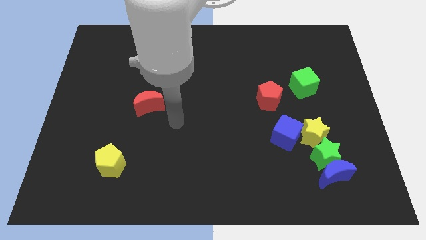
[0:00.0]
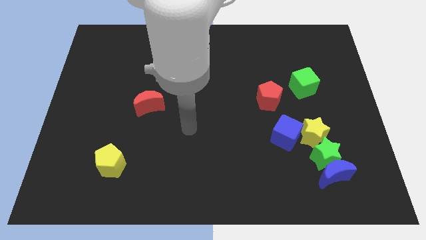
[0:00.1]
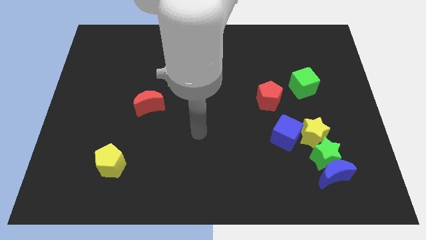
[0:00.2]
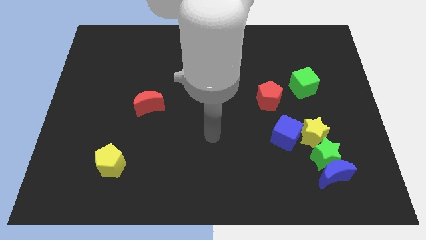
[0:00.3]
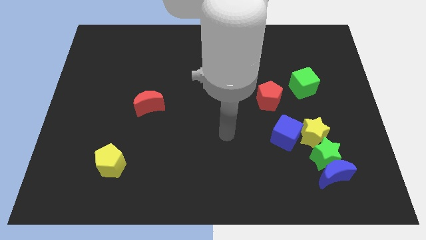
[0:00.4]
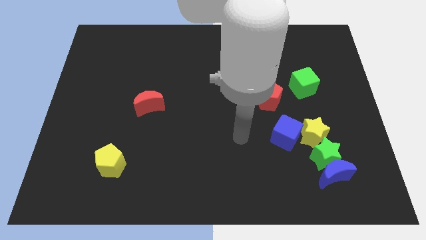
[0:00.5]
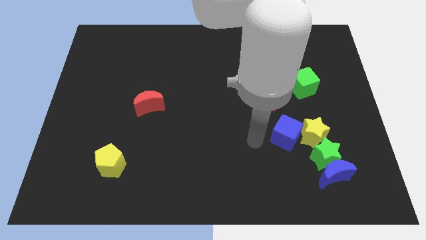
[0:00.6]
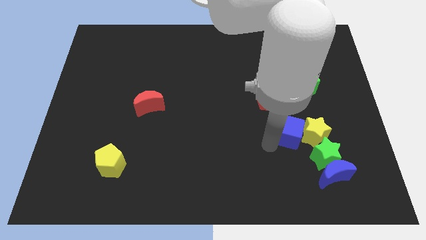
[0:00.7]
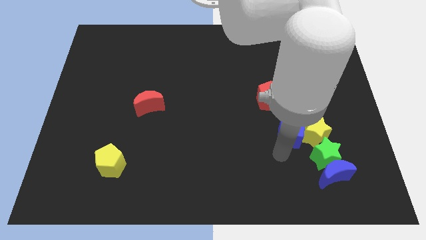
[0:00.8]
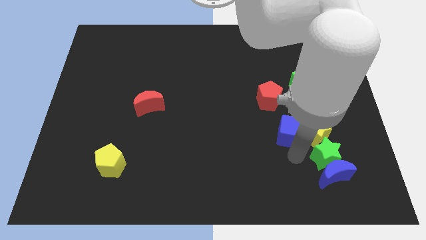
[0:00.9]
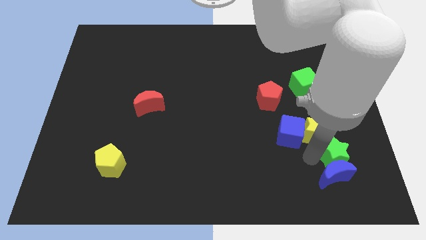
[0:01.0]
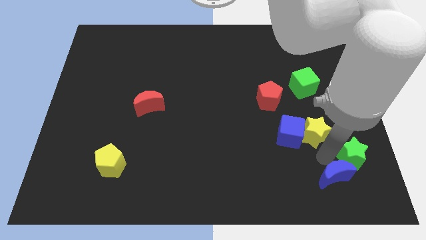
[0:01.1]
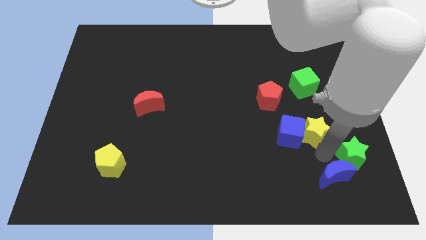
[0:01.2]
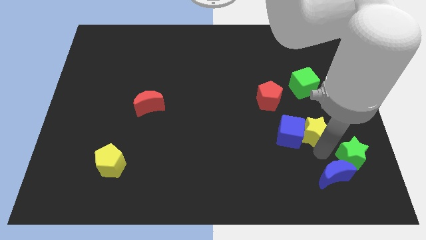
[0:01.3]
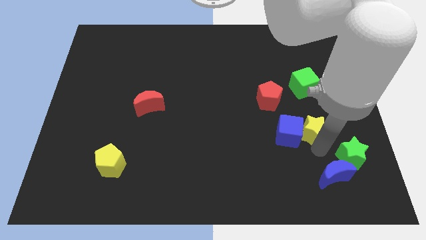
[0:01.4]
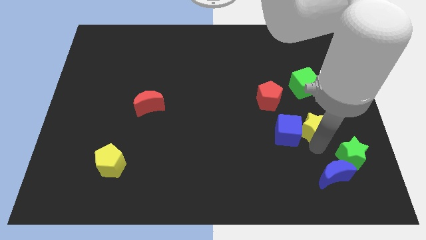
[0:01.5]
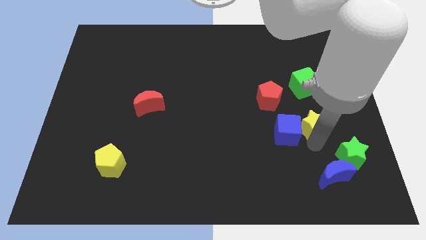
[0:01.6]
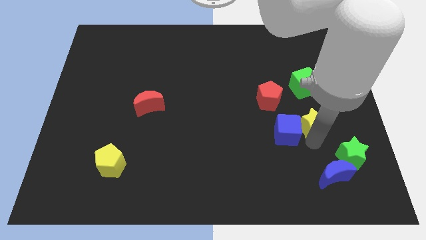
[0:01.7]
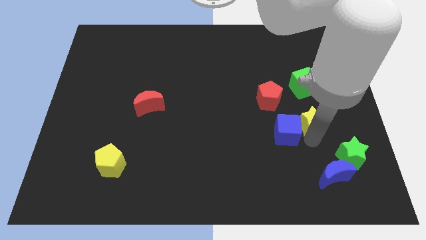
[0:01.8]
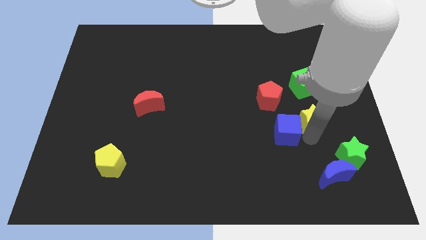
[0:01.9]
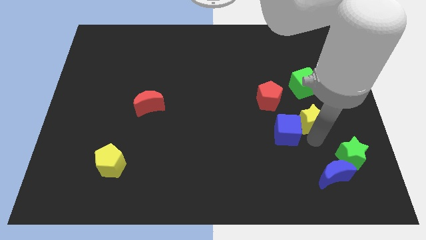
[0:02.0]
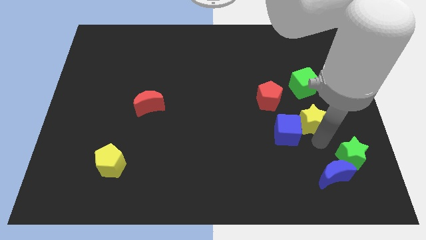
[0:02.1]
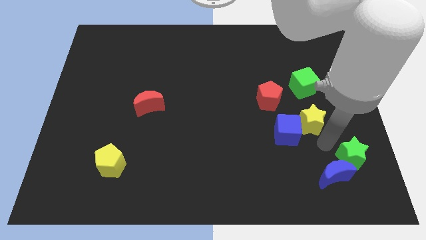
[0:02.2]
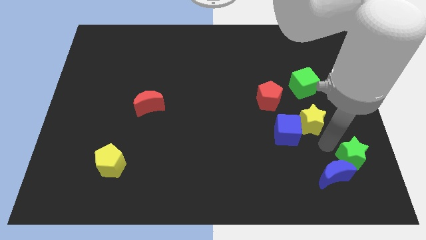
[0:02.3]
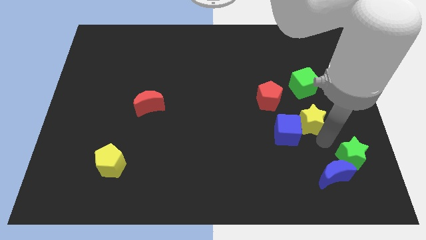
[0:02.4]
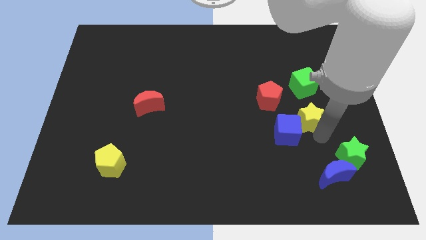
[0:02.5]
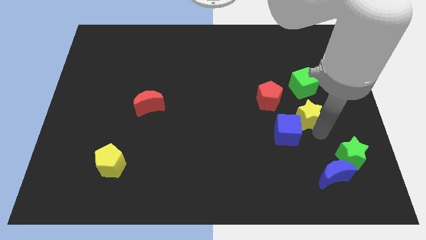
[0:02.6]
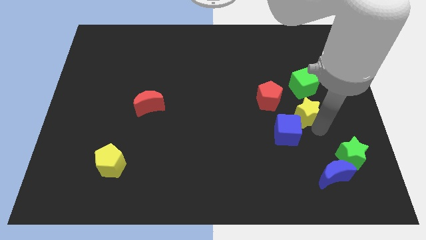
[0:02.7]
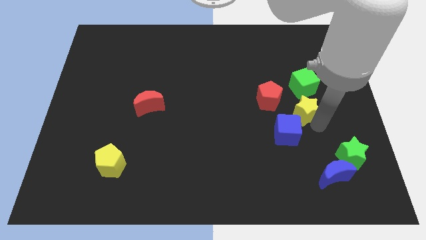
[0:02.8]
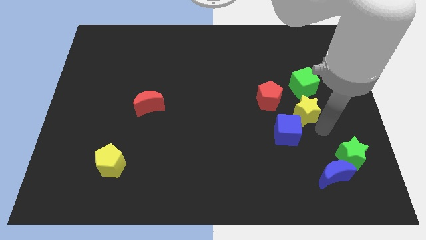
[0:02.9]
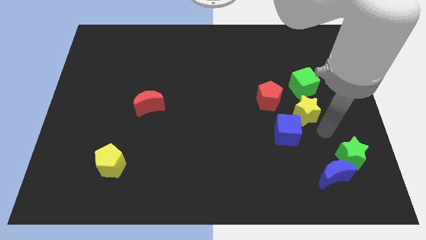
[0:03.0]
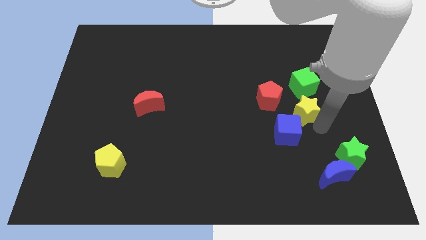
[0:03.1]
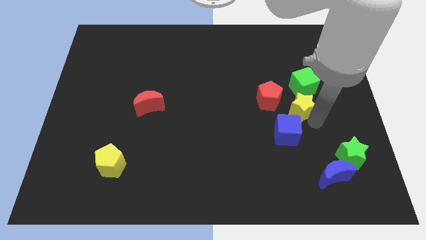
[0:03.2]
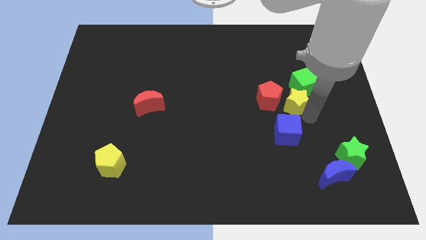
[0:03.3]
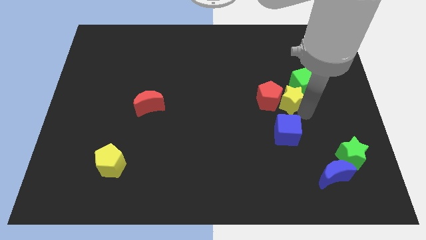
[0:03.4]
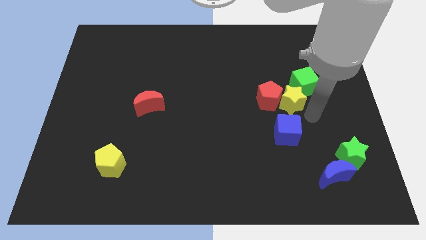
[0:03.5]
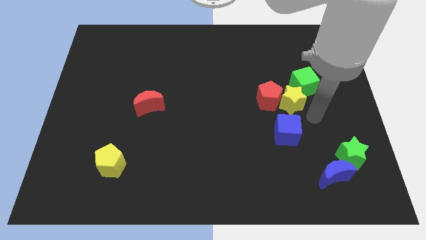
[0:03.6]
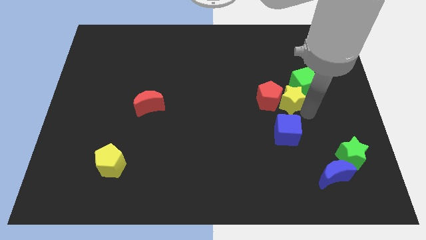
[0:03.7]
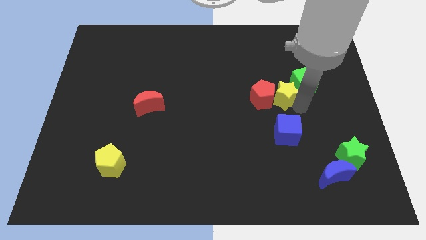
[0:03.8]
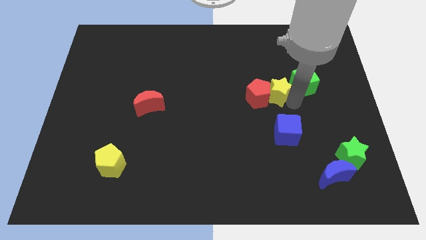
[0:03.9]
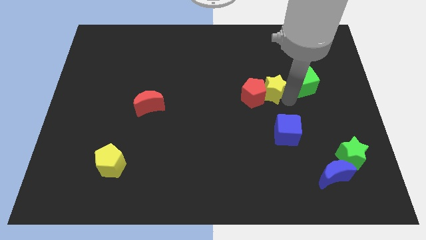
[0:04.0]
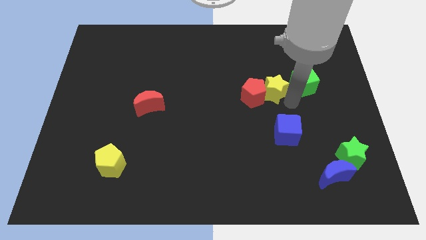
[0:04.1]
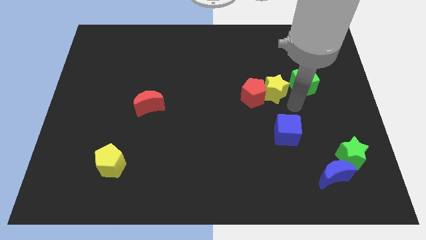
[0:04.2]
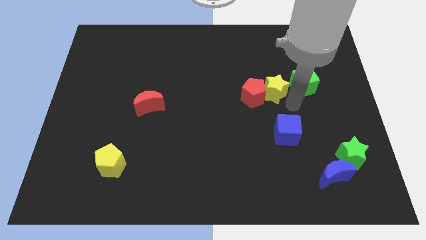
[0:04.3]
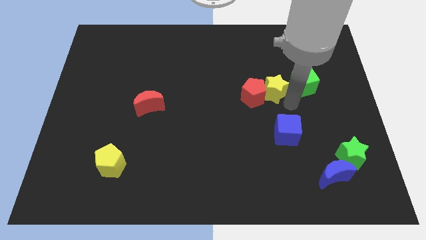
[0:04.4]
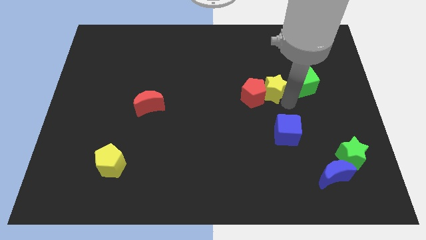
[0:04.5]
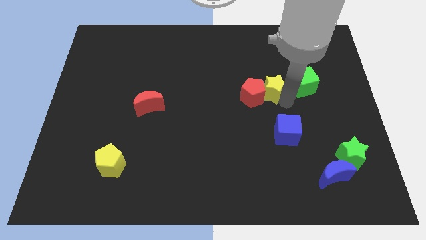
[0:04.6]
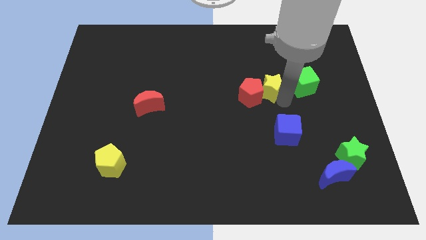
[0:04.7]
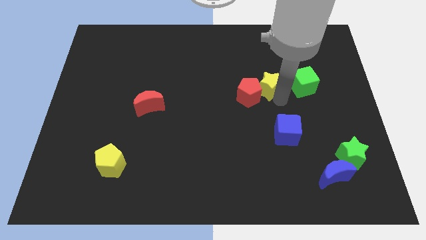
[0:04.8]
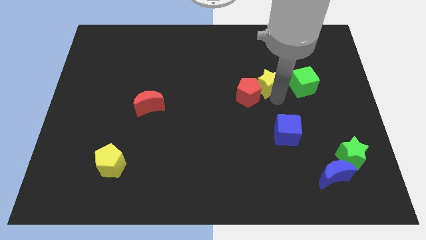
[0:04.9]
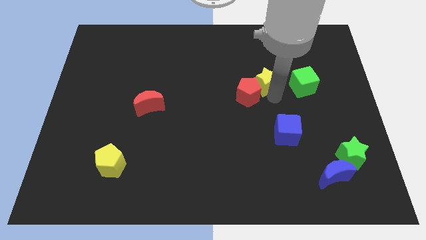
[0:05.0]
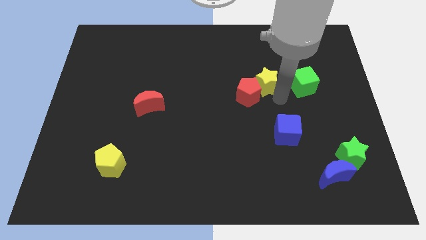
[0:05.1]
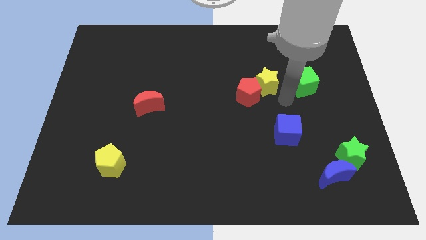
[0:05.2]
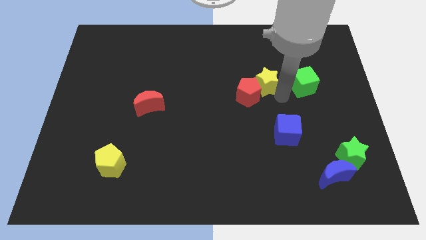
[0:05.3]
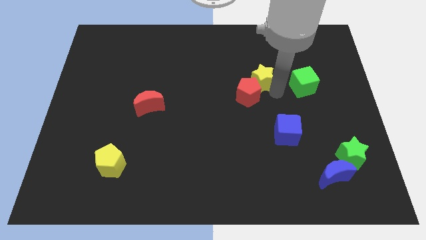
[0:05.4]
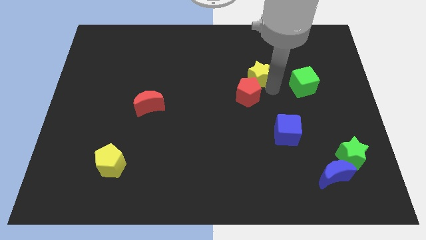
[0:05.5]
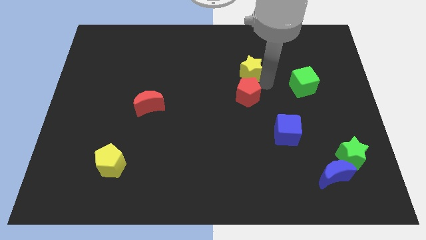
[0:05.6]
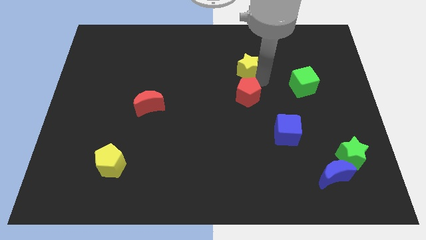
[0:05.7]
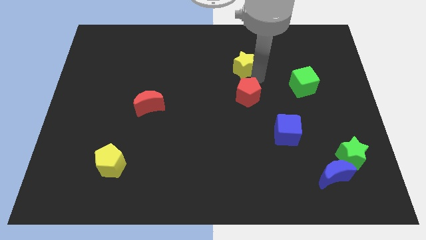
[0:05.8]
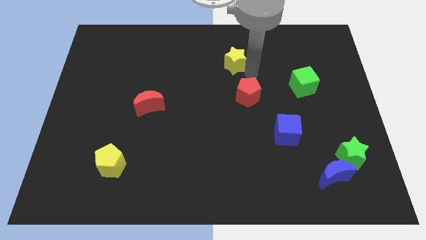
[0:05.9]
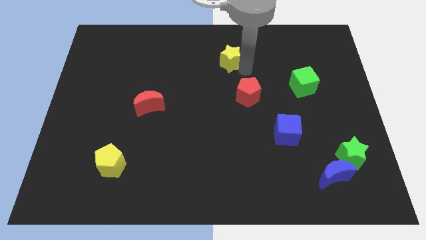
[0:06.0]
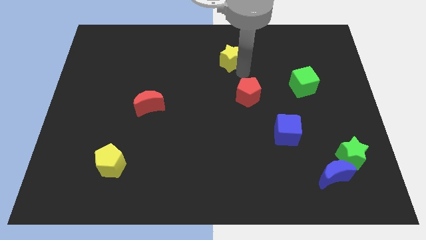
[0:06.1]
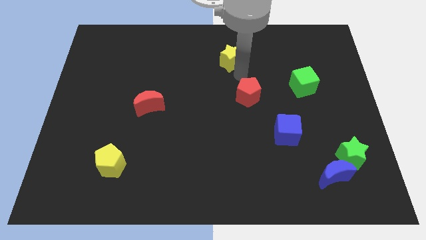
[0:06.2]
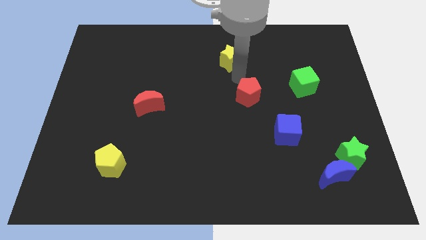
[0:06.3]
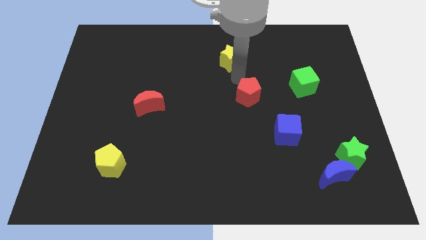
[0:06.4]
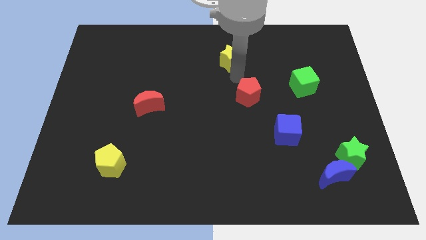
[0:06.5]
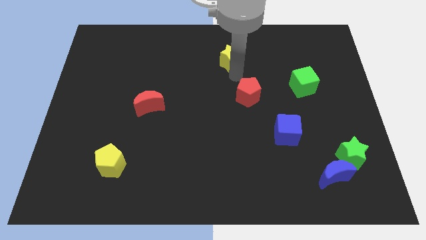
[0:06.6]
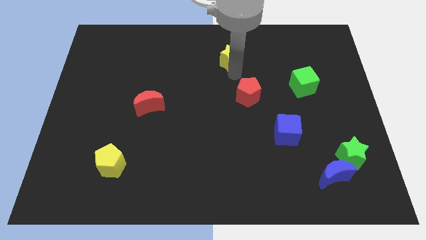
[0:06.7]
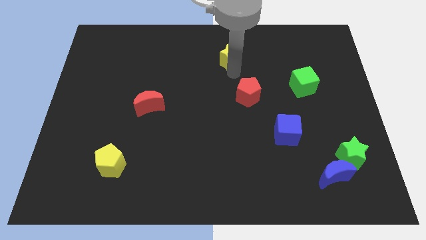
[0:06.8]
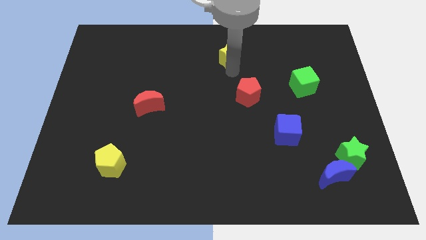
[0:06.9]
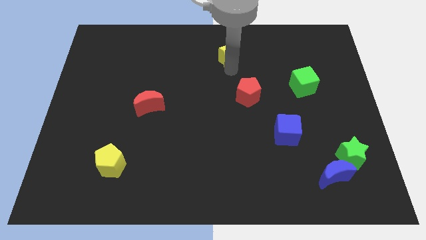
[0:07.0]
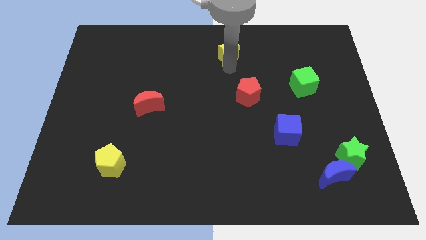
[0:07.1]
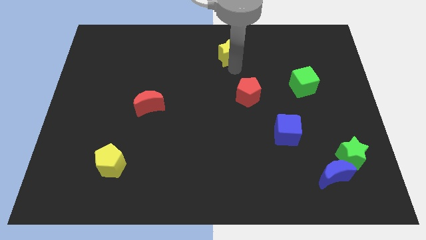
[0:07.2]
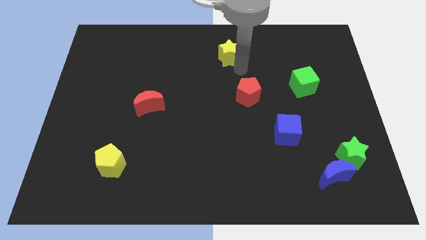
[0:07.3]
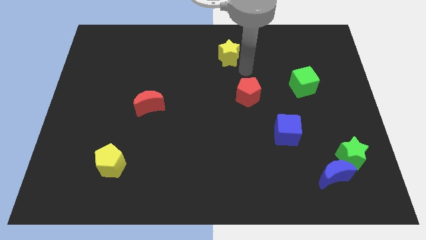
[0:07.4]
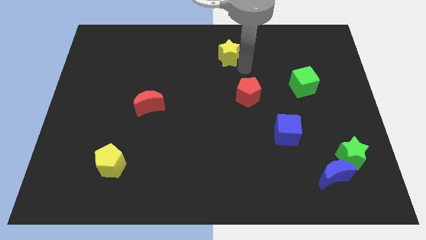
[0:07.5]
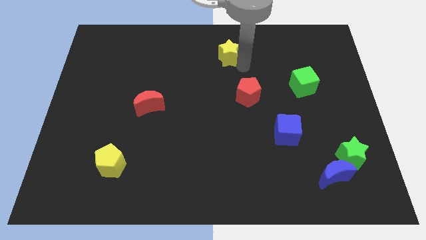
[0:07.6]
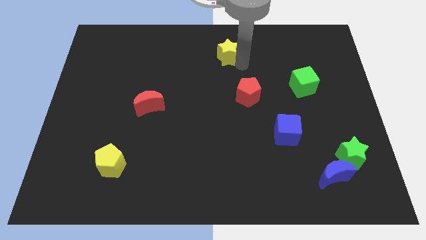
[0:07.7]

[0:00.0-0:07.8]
put the yellow star to the top side
